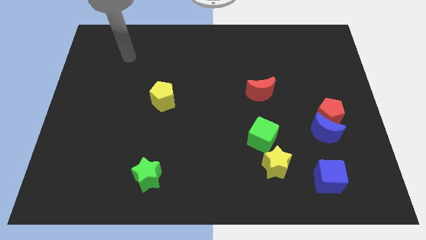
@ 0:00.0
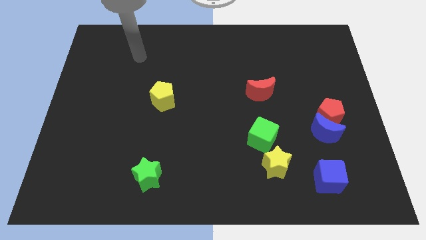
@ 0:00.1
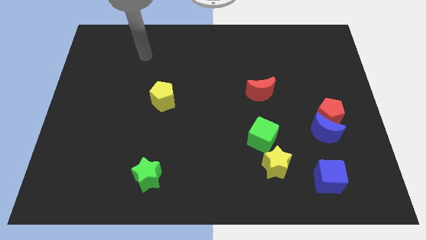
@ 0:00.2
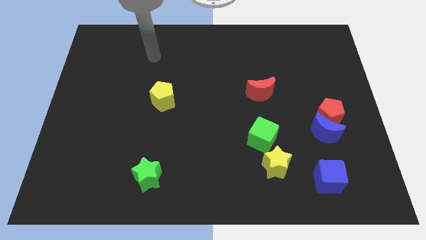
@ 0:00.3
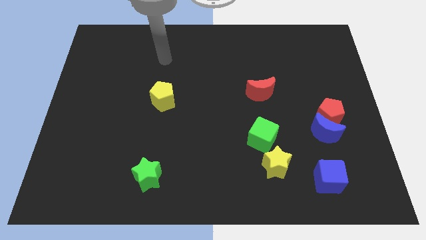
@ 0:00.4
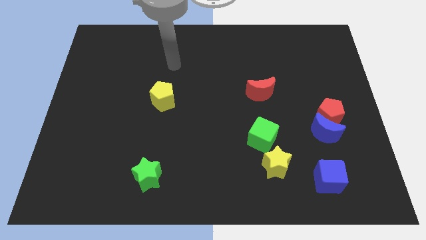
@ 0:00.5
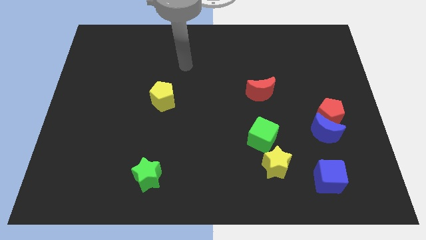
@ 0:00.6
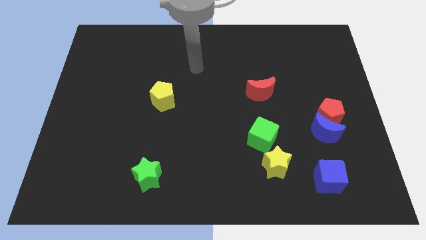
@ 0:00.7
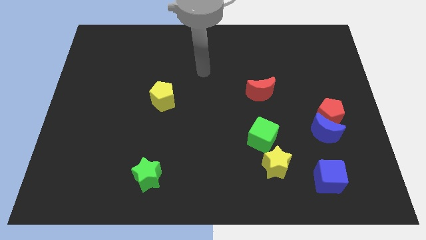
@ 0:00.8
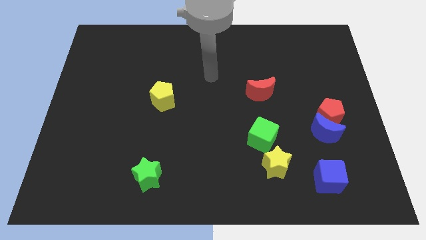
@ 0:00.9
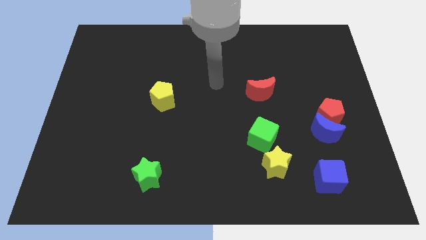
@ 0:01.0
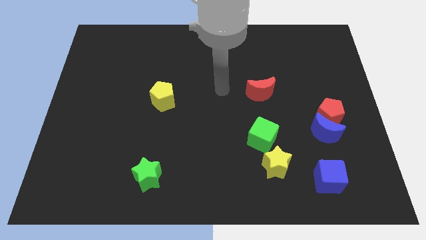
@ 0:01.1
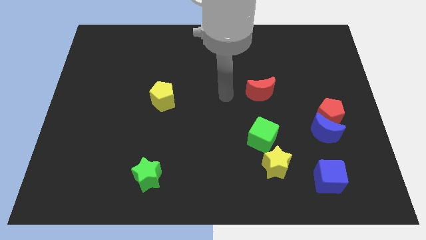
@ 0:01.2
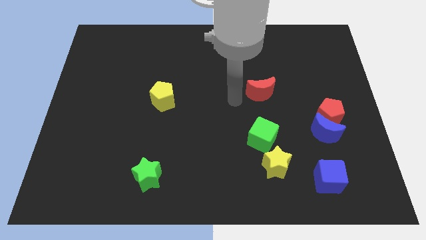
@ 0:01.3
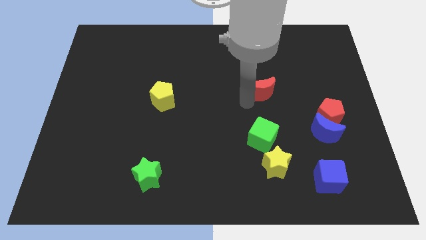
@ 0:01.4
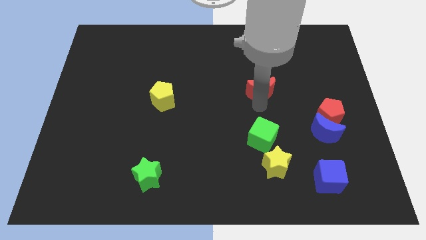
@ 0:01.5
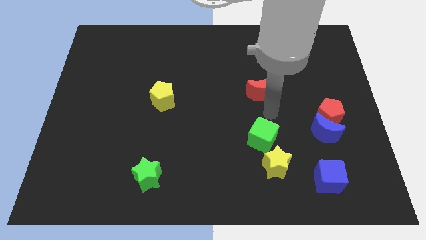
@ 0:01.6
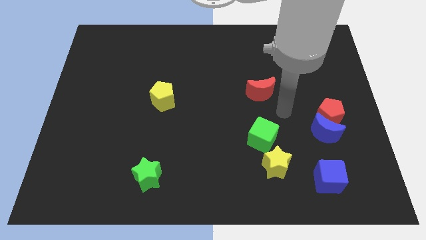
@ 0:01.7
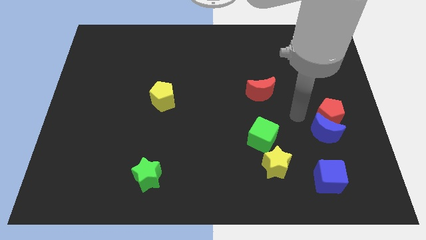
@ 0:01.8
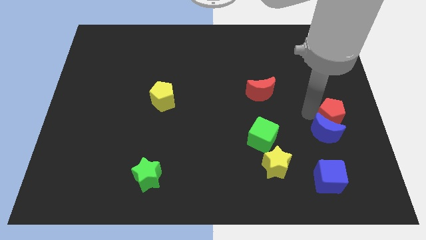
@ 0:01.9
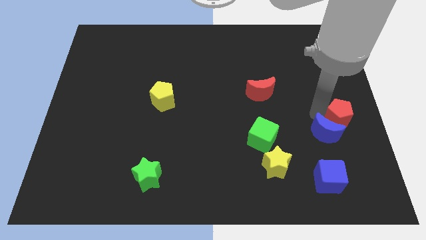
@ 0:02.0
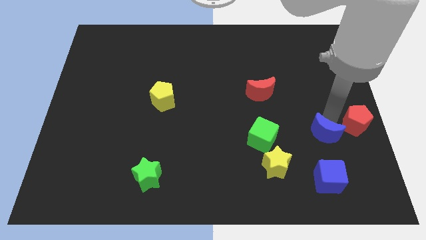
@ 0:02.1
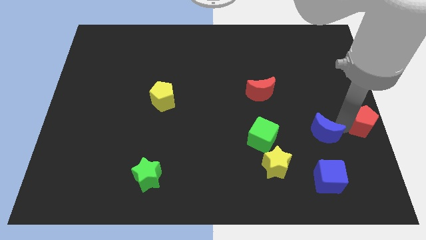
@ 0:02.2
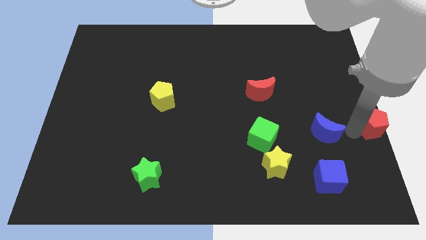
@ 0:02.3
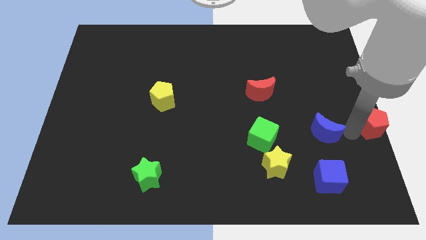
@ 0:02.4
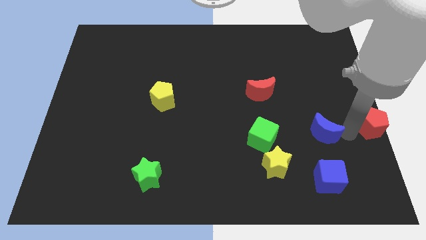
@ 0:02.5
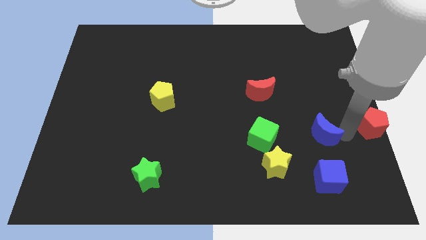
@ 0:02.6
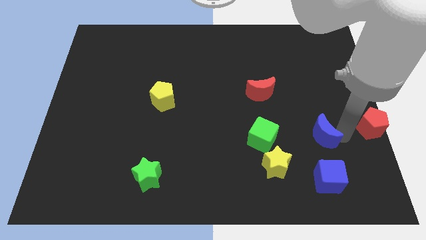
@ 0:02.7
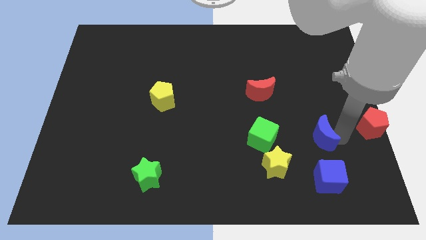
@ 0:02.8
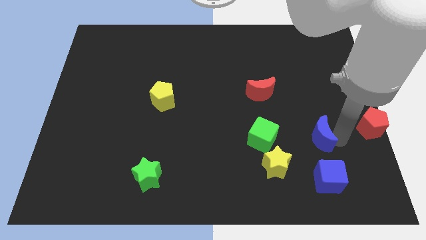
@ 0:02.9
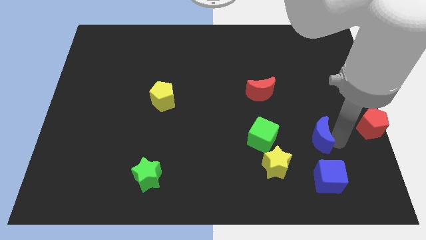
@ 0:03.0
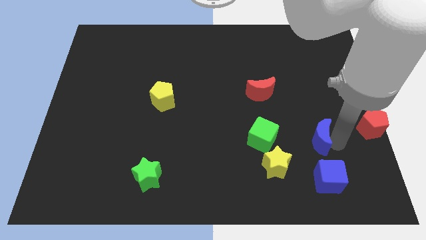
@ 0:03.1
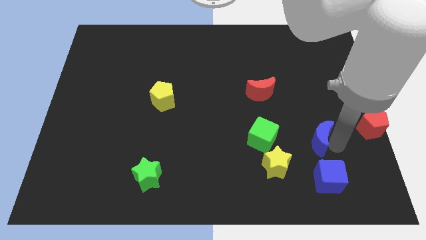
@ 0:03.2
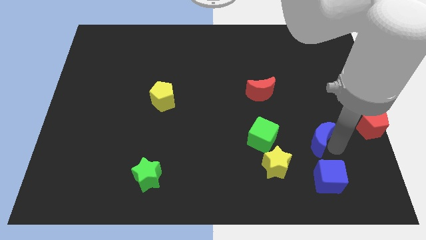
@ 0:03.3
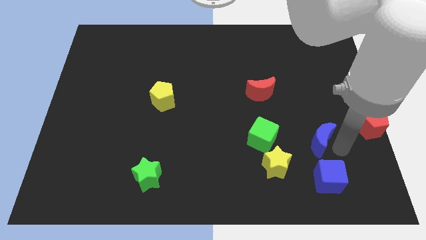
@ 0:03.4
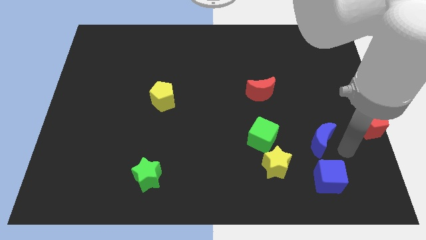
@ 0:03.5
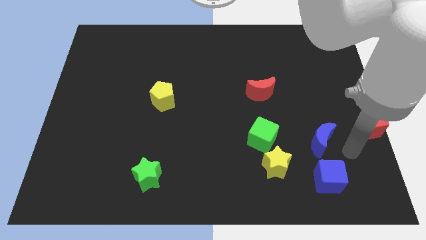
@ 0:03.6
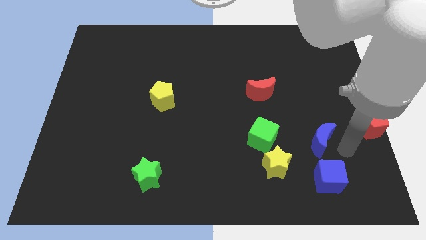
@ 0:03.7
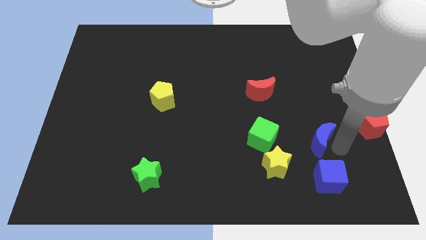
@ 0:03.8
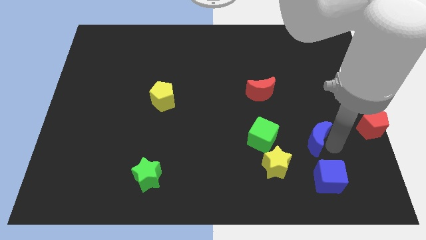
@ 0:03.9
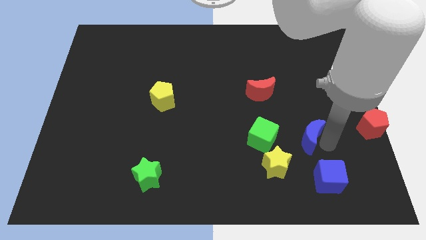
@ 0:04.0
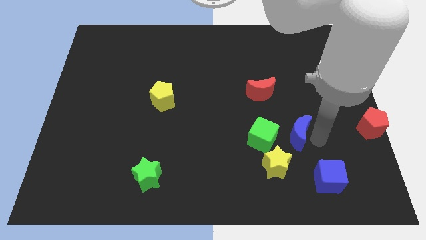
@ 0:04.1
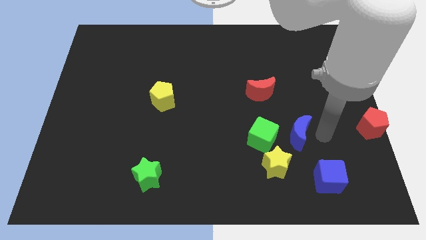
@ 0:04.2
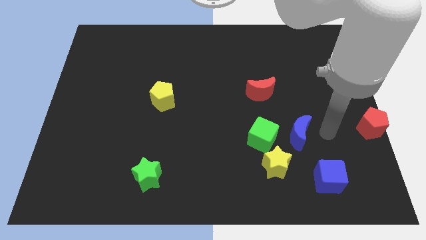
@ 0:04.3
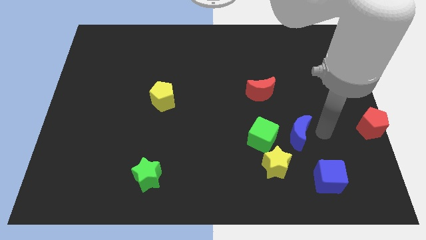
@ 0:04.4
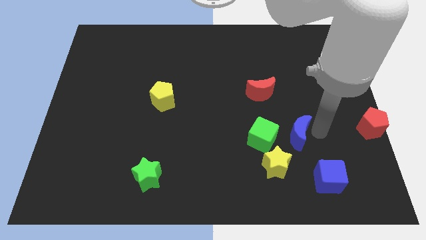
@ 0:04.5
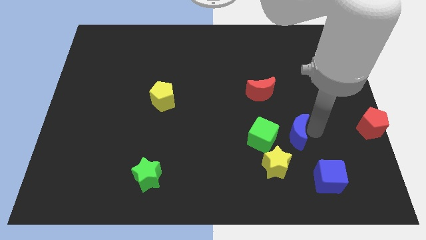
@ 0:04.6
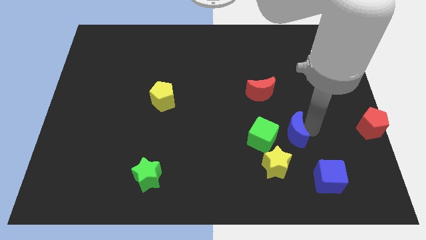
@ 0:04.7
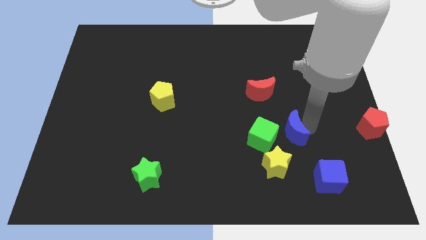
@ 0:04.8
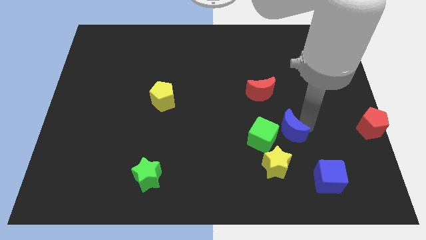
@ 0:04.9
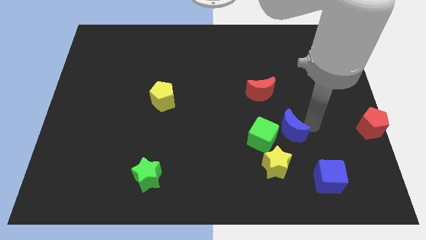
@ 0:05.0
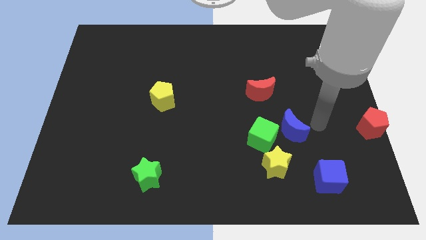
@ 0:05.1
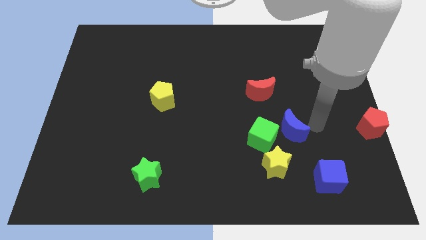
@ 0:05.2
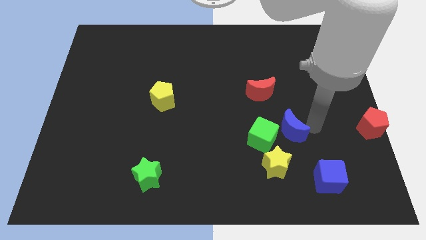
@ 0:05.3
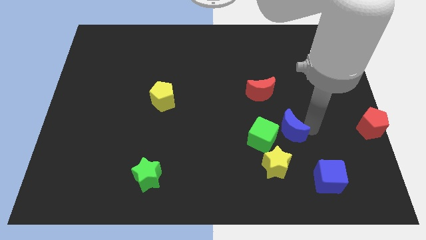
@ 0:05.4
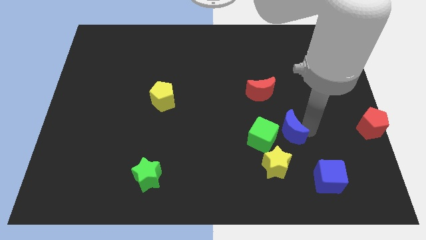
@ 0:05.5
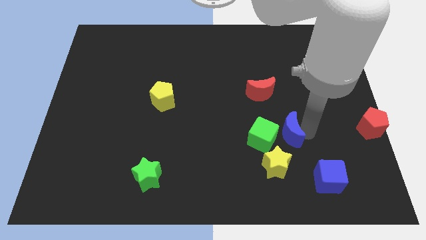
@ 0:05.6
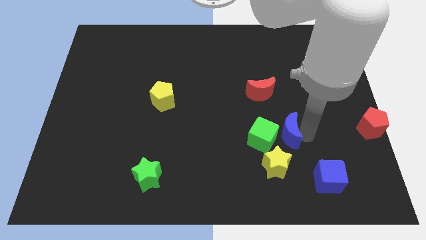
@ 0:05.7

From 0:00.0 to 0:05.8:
push the blue moon towards the green cube

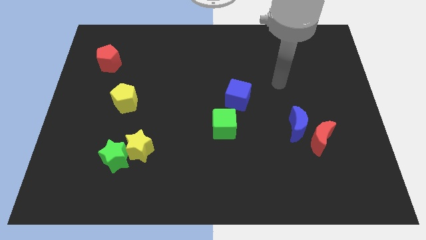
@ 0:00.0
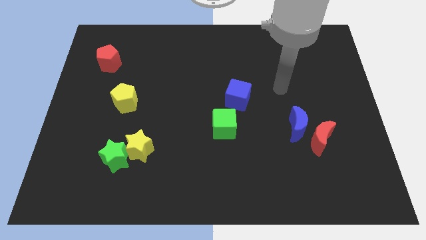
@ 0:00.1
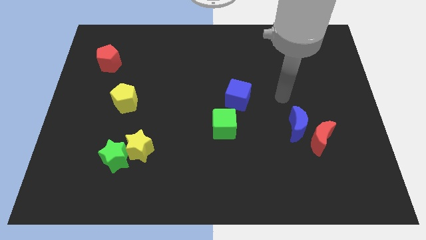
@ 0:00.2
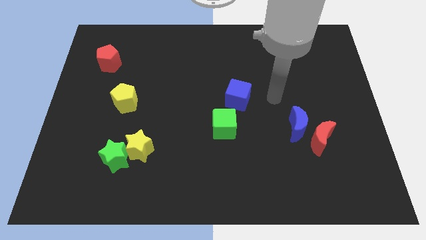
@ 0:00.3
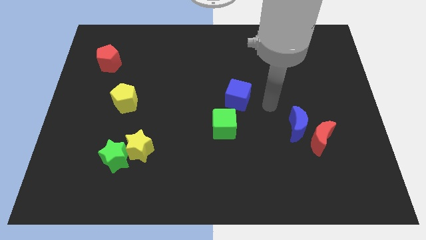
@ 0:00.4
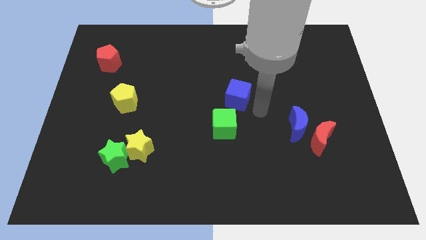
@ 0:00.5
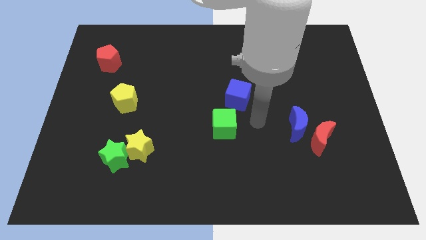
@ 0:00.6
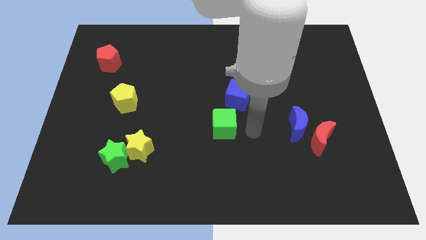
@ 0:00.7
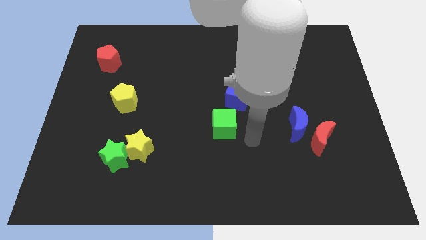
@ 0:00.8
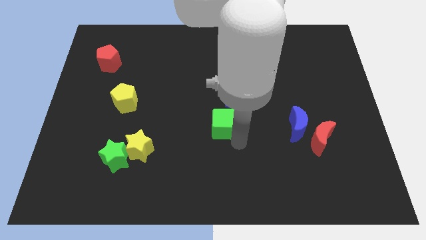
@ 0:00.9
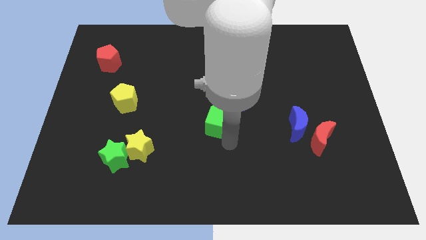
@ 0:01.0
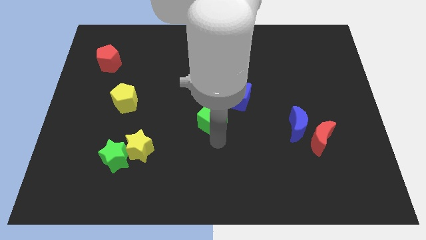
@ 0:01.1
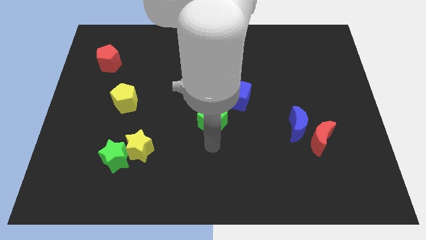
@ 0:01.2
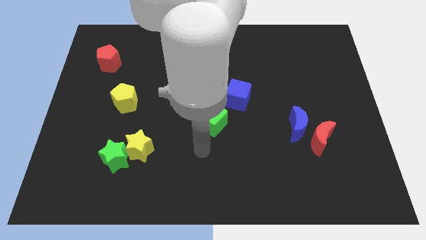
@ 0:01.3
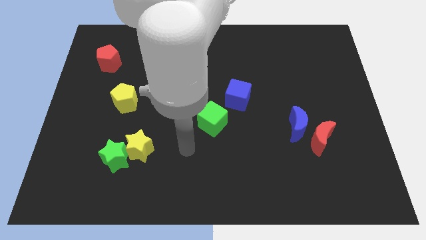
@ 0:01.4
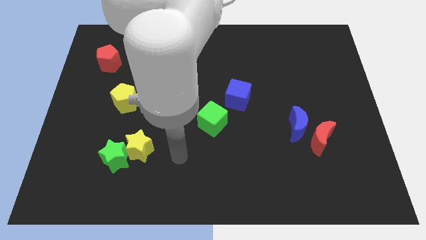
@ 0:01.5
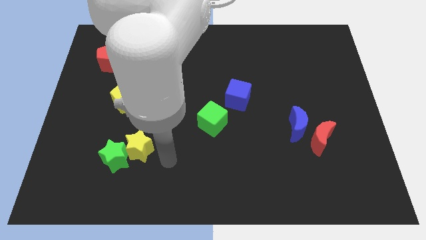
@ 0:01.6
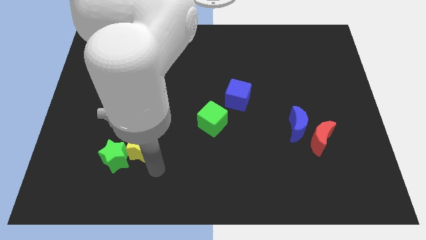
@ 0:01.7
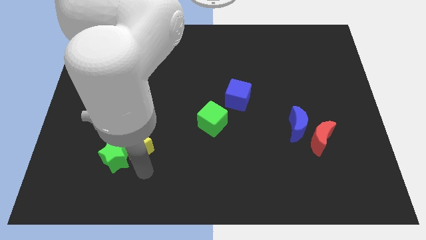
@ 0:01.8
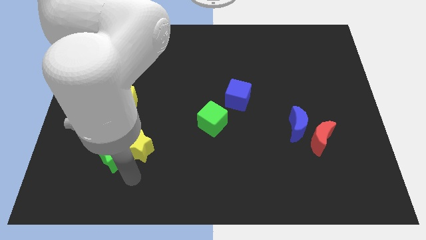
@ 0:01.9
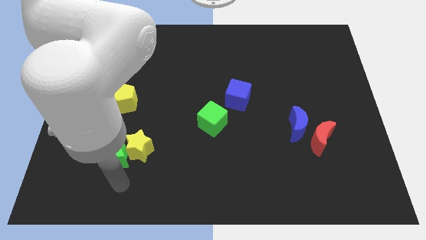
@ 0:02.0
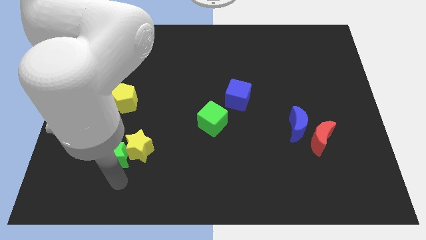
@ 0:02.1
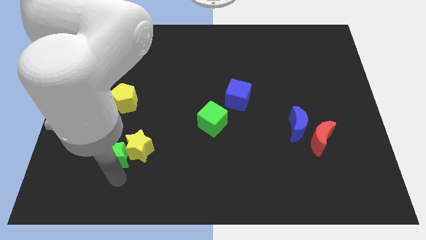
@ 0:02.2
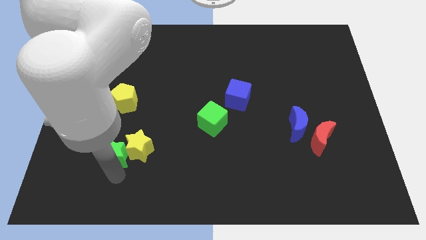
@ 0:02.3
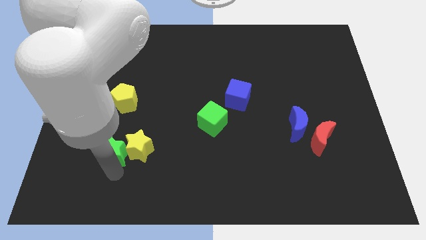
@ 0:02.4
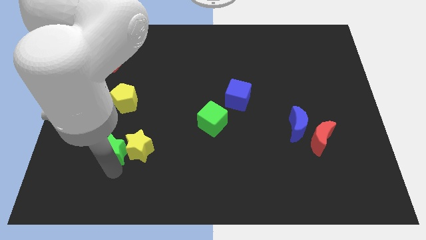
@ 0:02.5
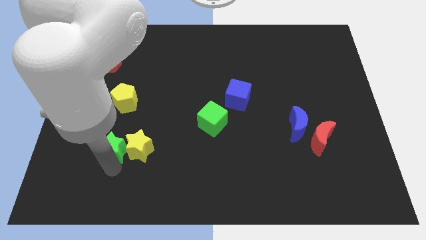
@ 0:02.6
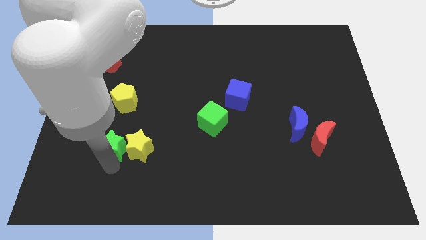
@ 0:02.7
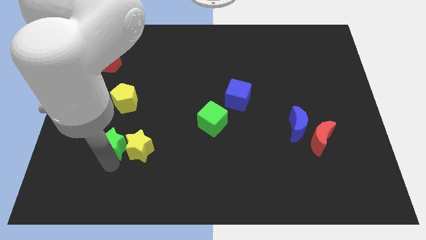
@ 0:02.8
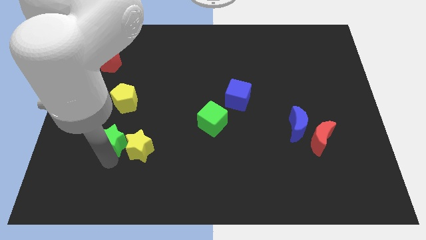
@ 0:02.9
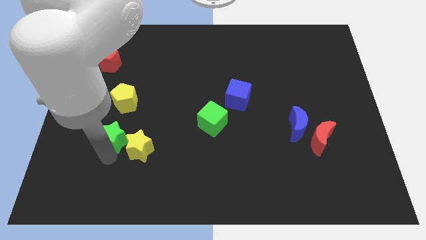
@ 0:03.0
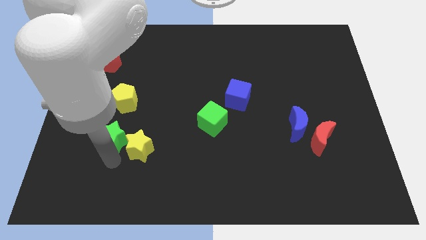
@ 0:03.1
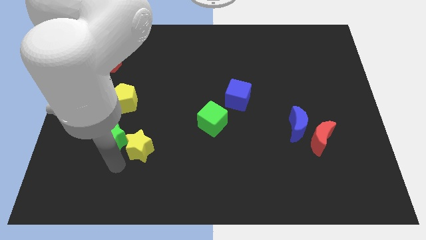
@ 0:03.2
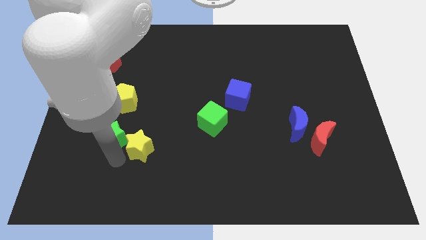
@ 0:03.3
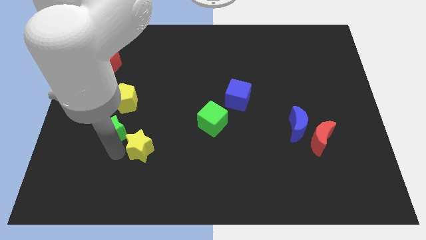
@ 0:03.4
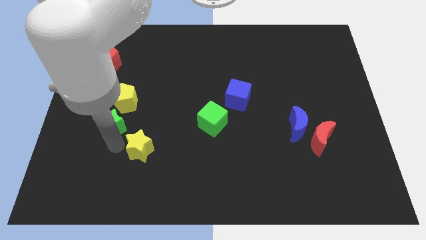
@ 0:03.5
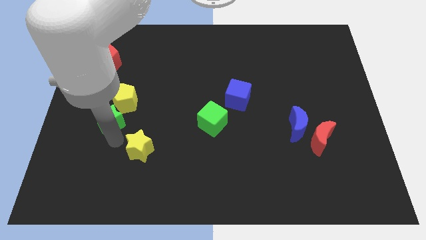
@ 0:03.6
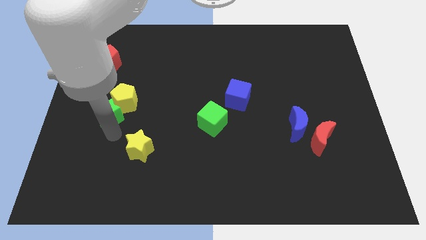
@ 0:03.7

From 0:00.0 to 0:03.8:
move the green star towards the yellow pentagon
